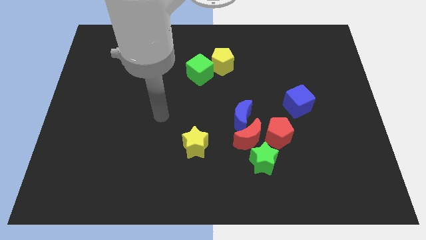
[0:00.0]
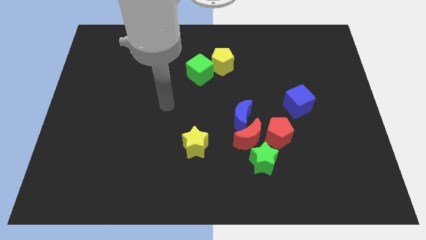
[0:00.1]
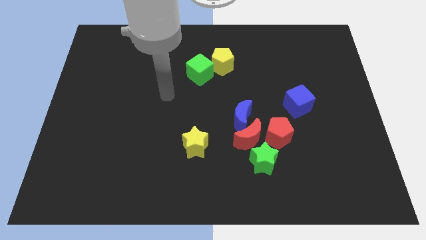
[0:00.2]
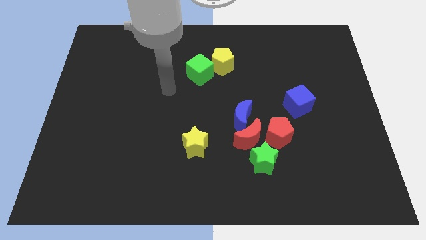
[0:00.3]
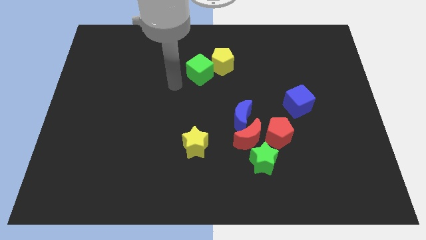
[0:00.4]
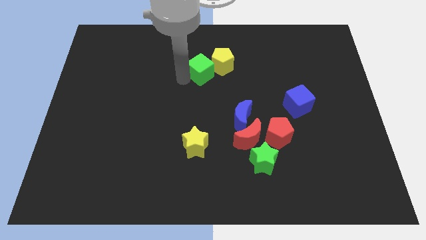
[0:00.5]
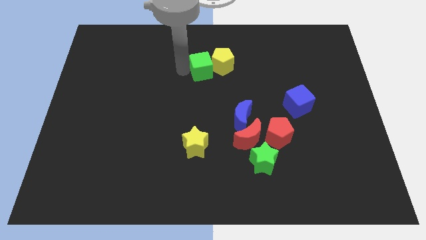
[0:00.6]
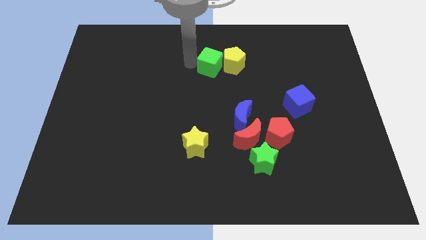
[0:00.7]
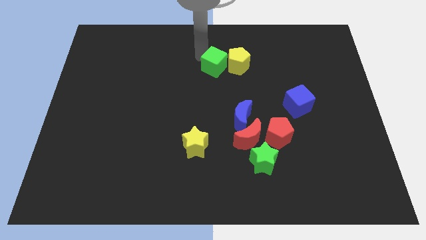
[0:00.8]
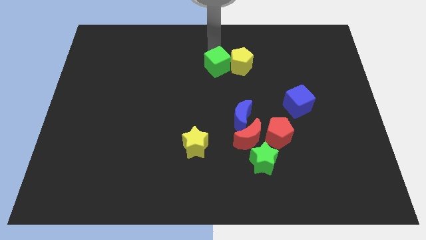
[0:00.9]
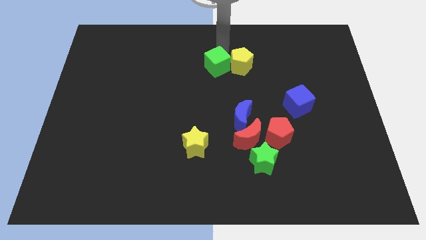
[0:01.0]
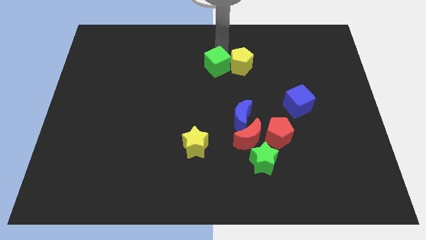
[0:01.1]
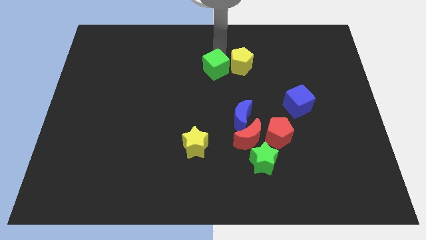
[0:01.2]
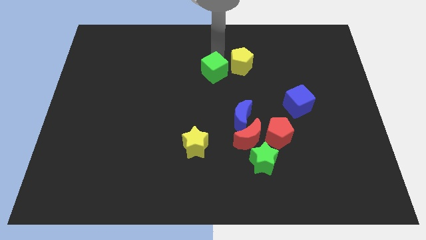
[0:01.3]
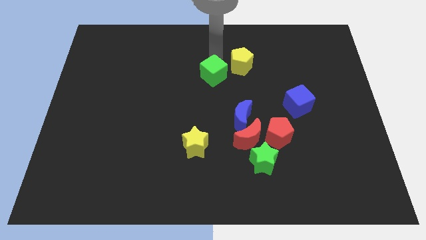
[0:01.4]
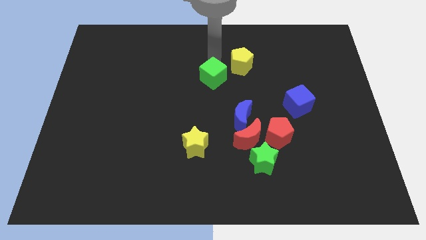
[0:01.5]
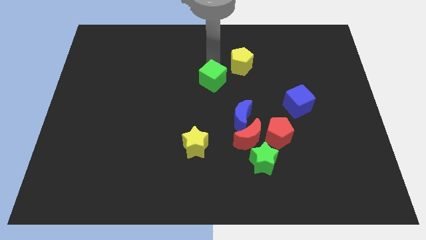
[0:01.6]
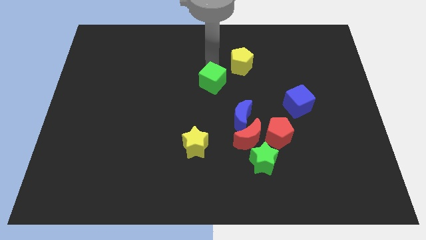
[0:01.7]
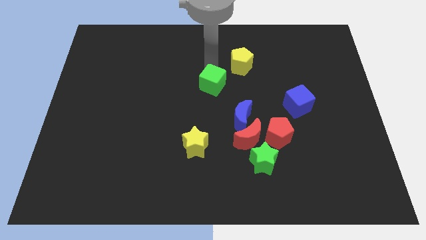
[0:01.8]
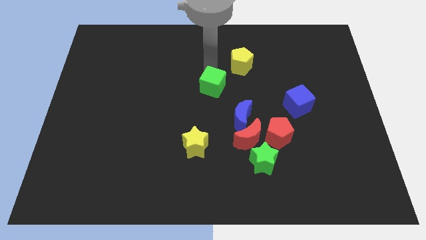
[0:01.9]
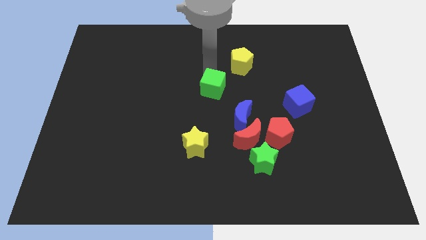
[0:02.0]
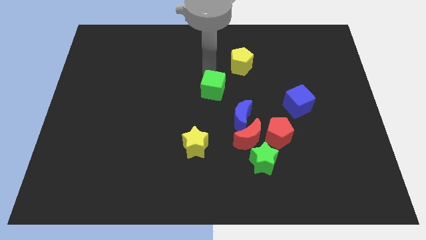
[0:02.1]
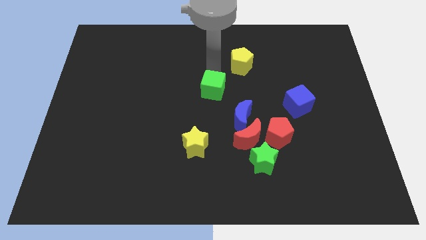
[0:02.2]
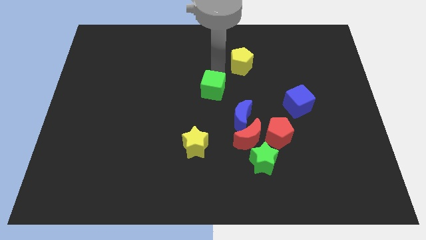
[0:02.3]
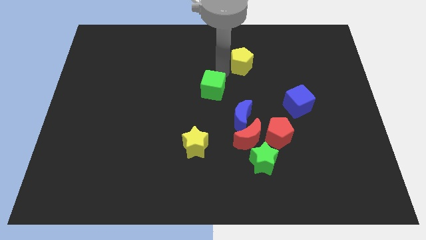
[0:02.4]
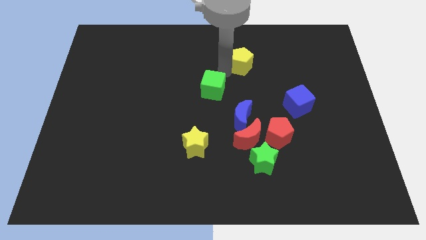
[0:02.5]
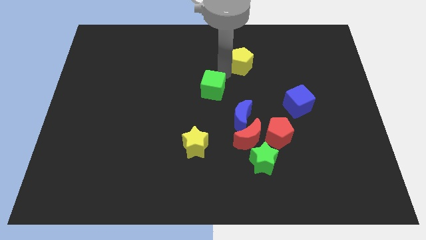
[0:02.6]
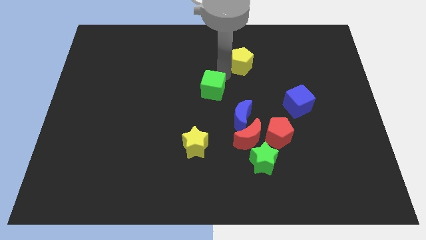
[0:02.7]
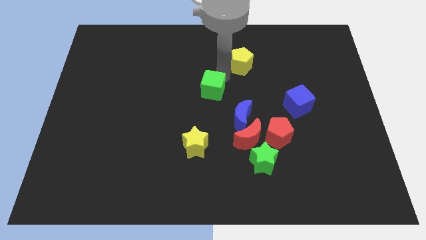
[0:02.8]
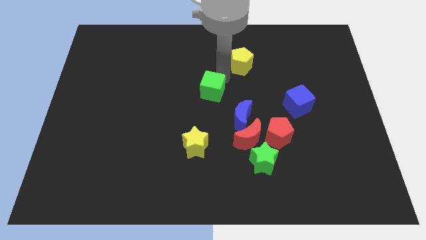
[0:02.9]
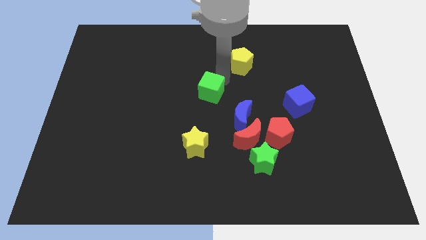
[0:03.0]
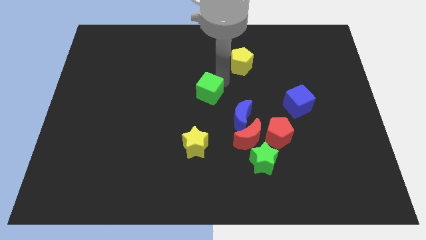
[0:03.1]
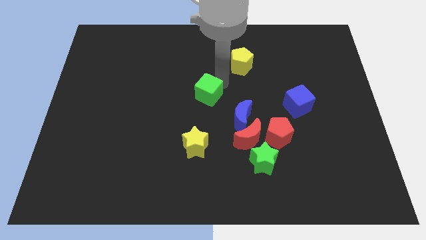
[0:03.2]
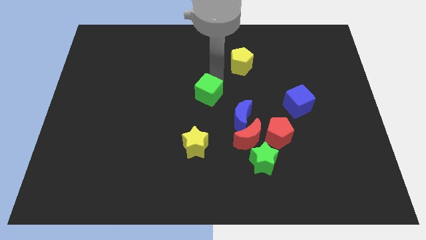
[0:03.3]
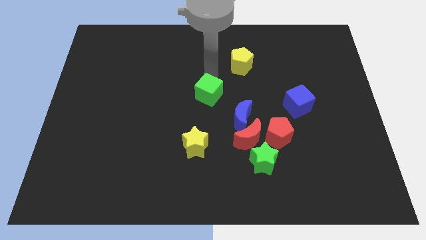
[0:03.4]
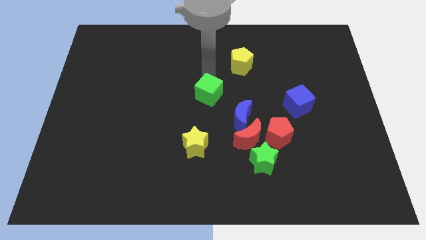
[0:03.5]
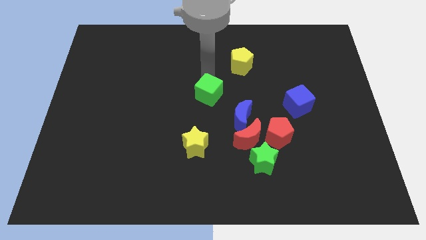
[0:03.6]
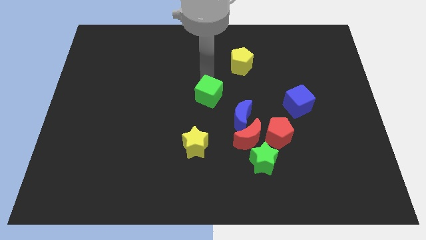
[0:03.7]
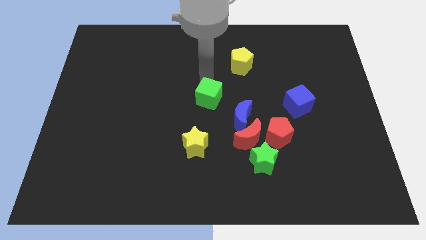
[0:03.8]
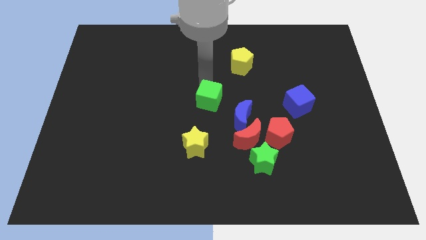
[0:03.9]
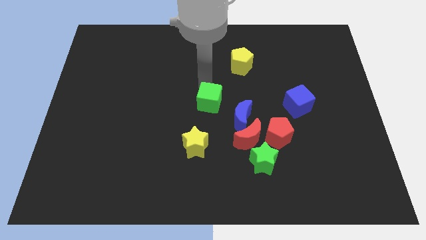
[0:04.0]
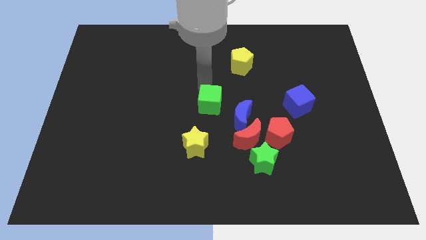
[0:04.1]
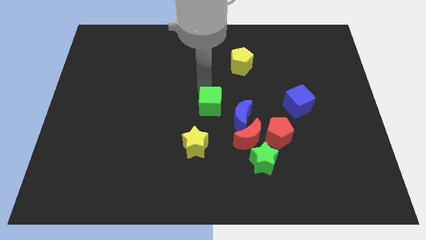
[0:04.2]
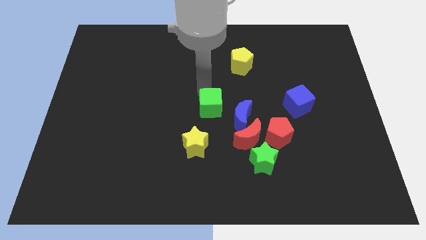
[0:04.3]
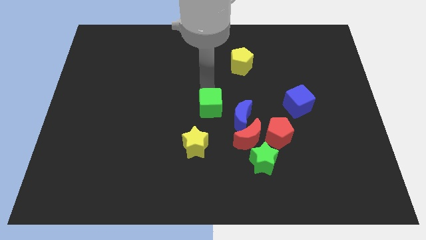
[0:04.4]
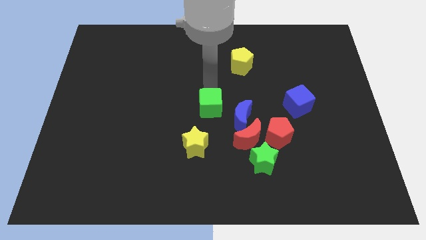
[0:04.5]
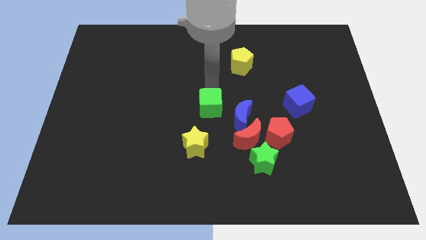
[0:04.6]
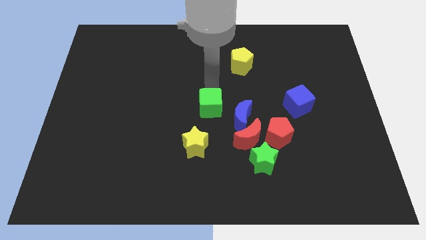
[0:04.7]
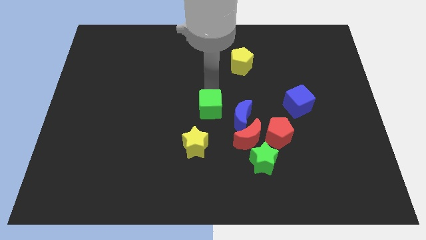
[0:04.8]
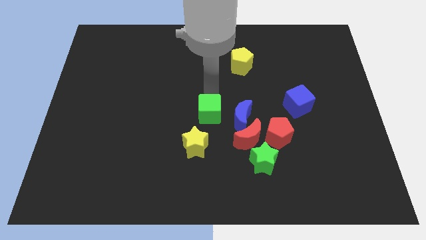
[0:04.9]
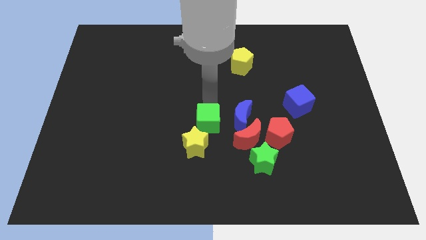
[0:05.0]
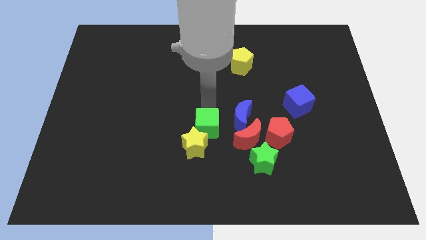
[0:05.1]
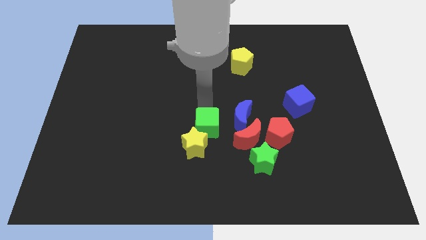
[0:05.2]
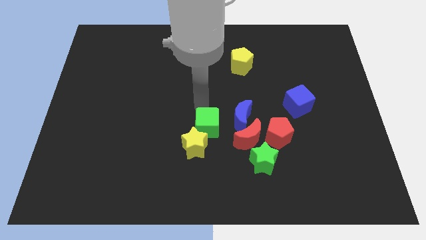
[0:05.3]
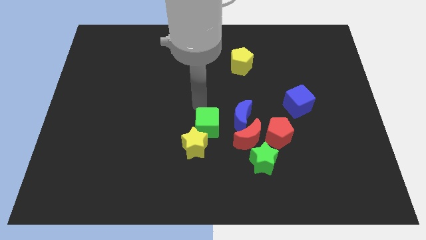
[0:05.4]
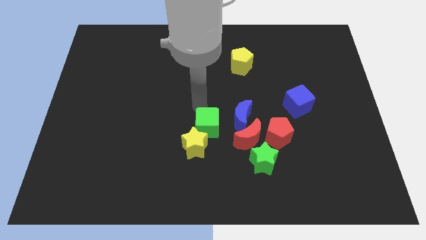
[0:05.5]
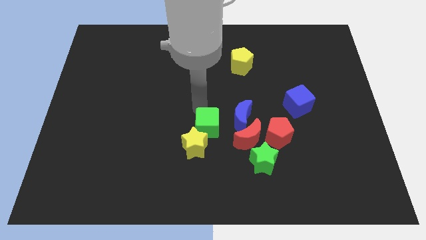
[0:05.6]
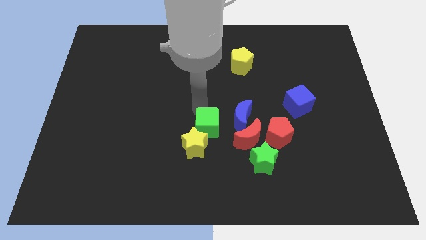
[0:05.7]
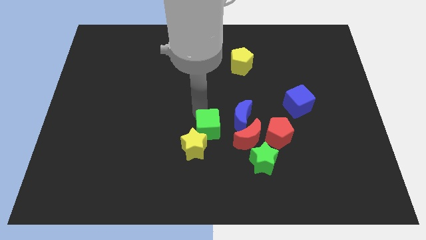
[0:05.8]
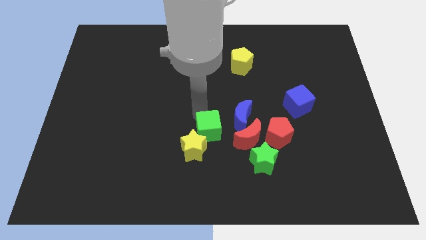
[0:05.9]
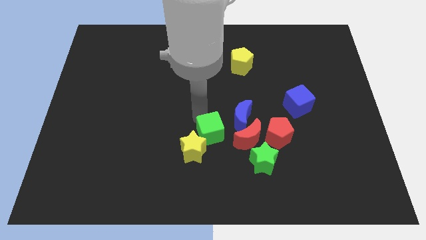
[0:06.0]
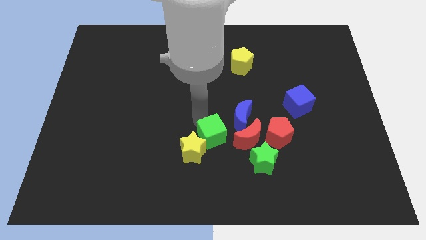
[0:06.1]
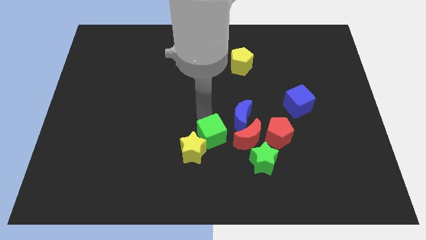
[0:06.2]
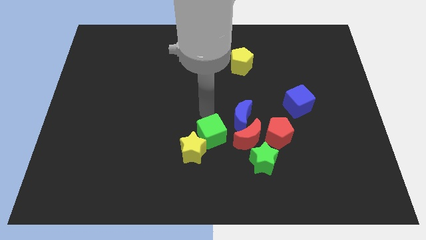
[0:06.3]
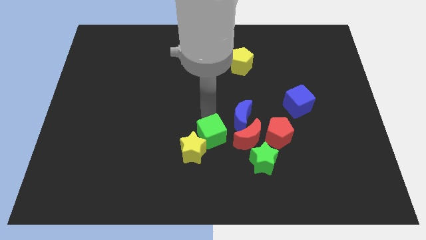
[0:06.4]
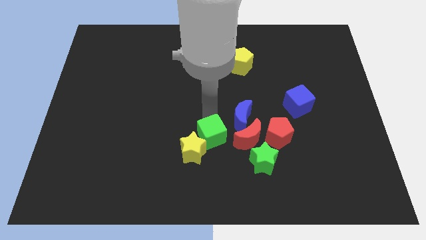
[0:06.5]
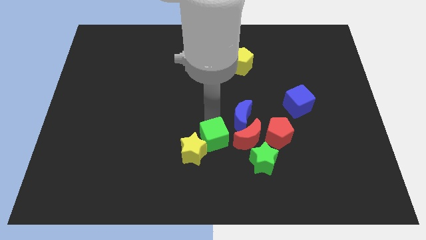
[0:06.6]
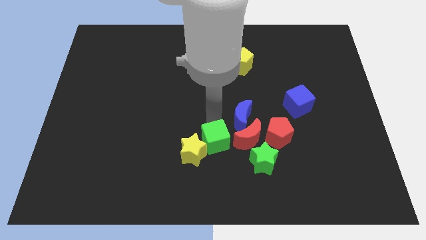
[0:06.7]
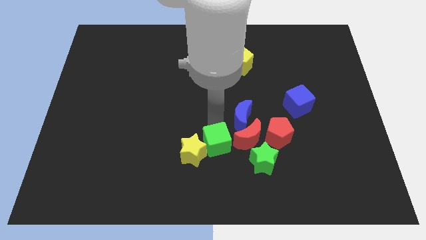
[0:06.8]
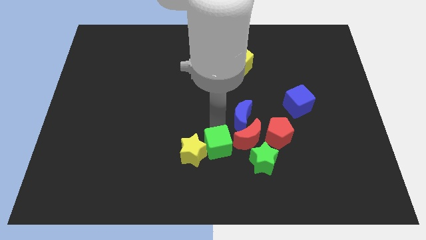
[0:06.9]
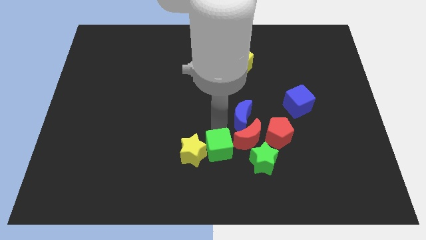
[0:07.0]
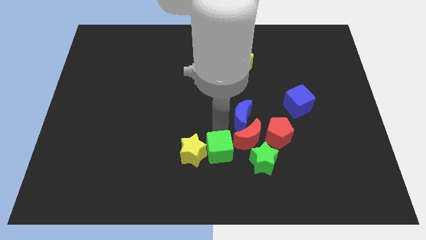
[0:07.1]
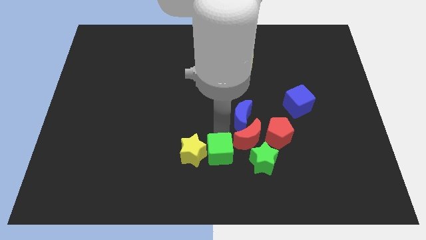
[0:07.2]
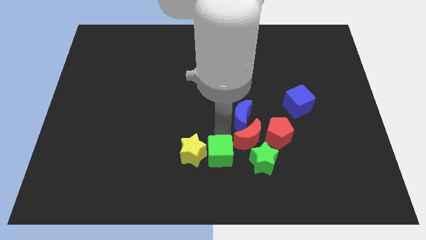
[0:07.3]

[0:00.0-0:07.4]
move the green cube to the bottom side
